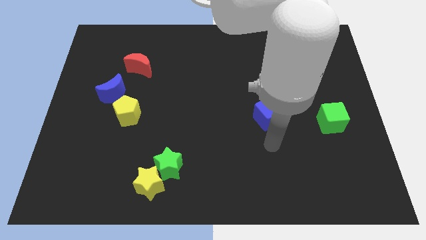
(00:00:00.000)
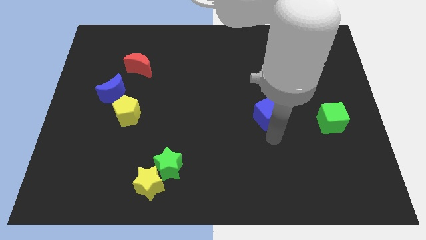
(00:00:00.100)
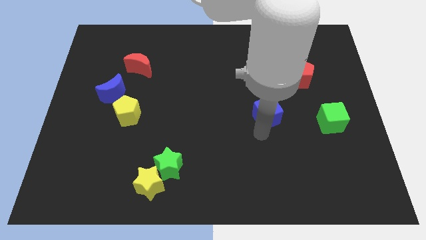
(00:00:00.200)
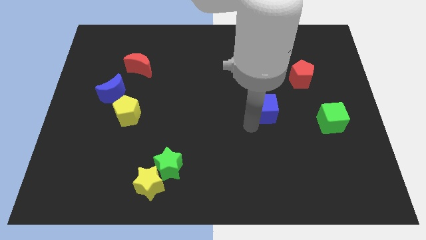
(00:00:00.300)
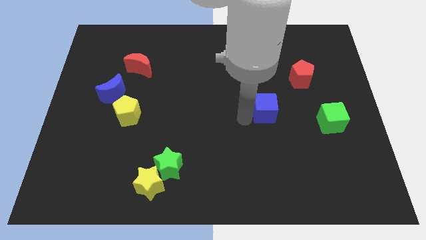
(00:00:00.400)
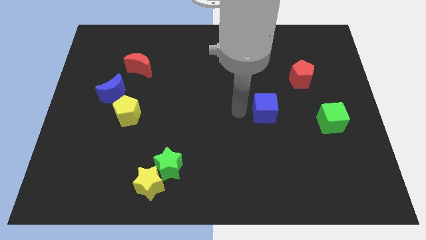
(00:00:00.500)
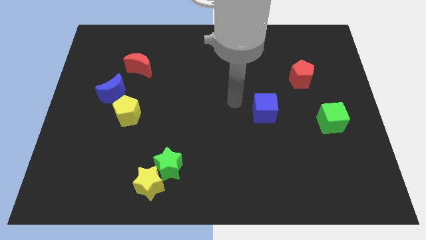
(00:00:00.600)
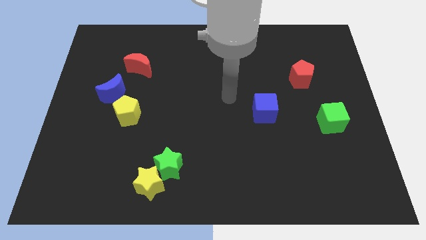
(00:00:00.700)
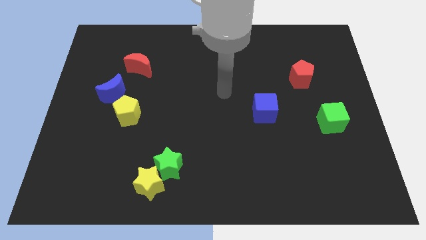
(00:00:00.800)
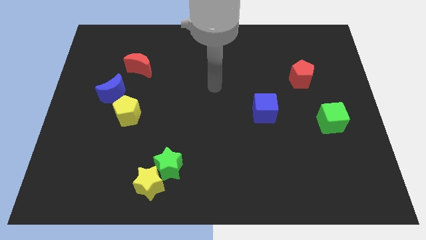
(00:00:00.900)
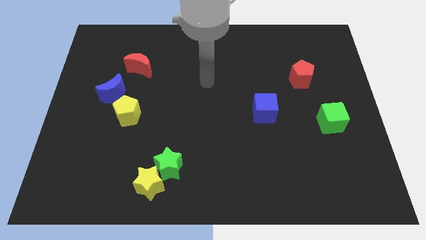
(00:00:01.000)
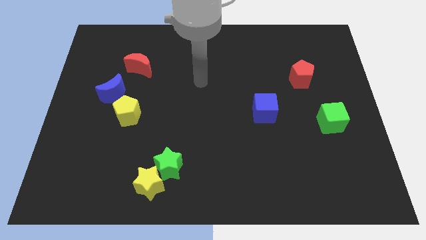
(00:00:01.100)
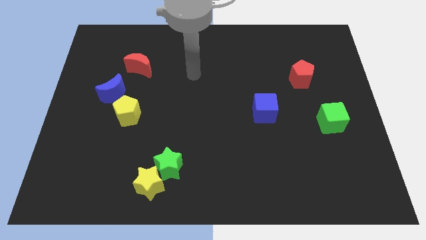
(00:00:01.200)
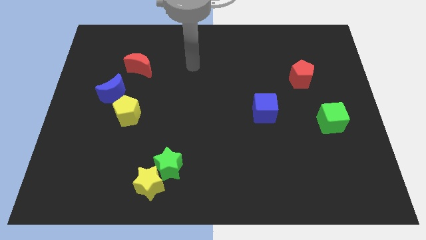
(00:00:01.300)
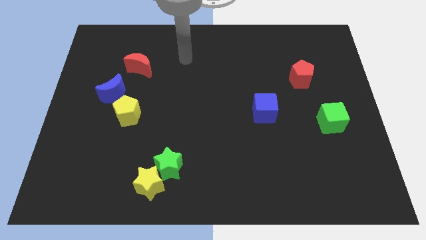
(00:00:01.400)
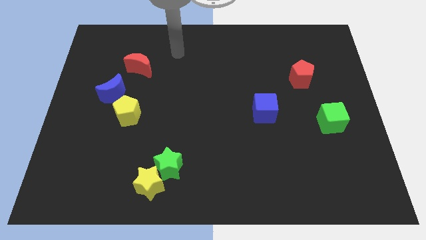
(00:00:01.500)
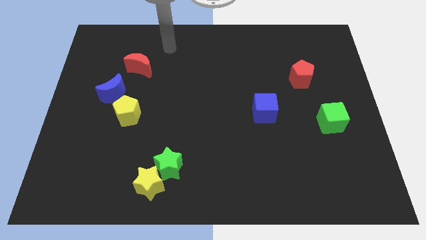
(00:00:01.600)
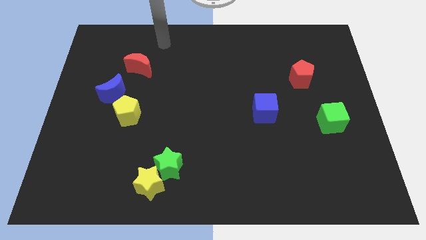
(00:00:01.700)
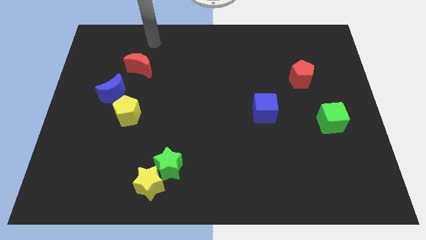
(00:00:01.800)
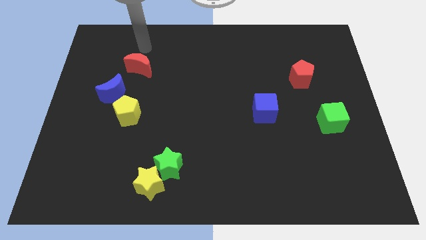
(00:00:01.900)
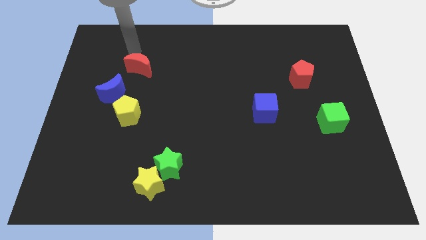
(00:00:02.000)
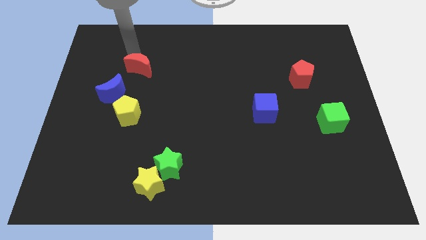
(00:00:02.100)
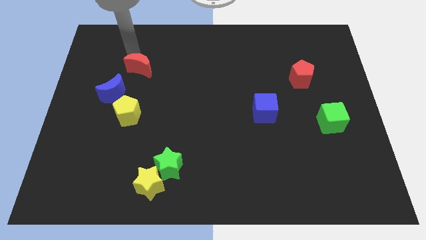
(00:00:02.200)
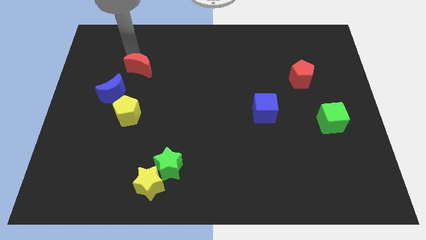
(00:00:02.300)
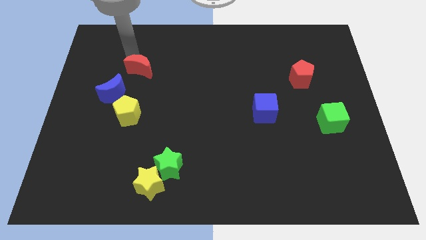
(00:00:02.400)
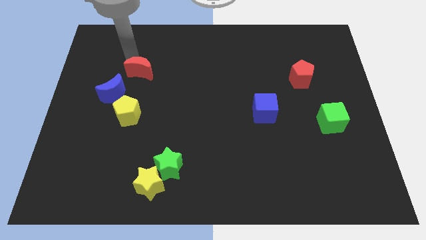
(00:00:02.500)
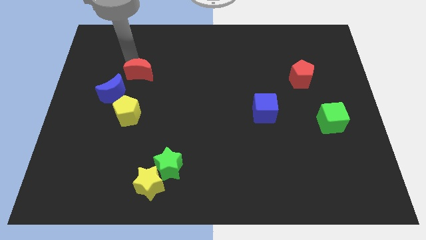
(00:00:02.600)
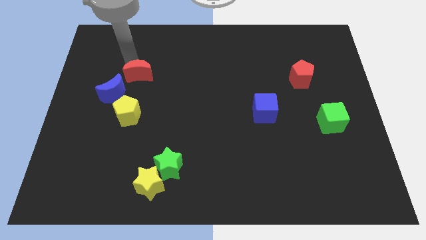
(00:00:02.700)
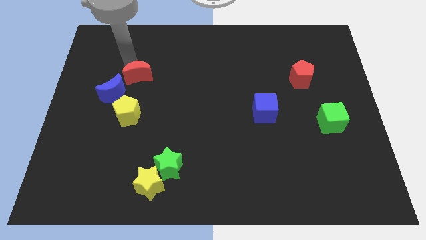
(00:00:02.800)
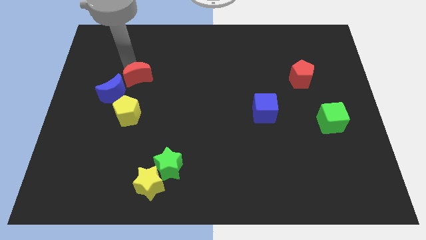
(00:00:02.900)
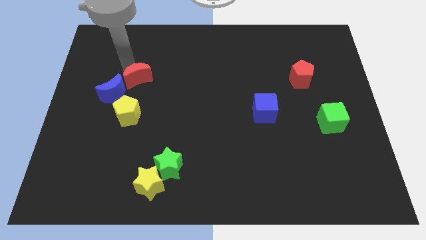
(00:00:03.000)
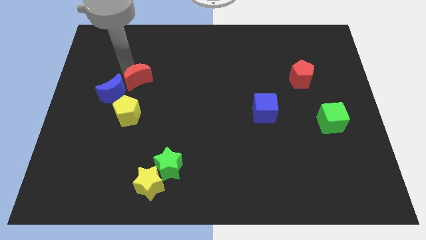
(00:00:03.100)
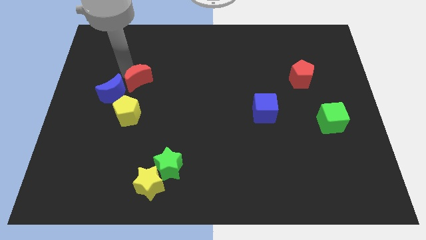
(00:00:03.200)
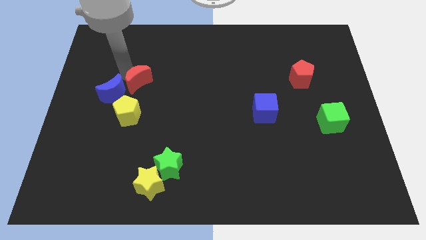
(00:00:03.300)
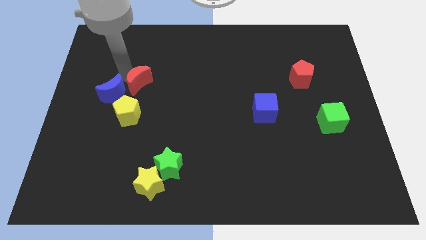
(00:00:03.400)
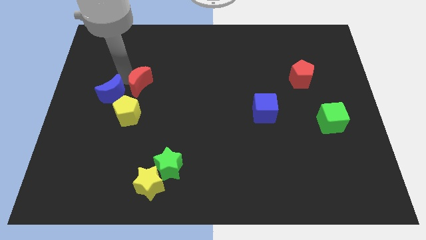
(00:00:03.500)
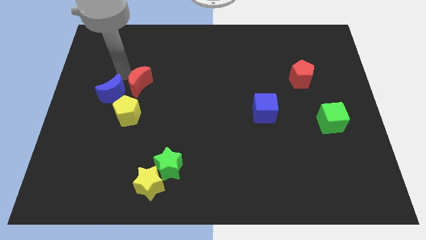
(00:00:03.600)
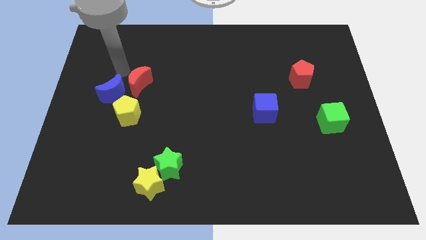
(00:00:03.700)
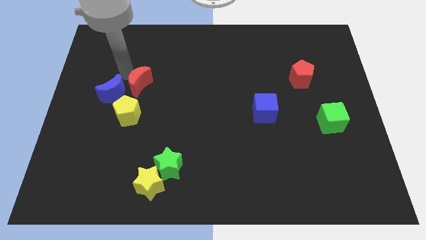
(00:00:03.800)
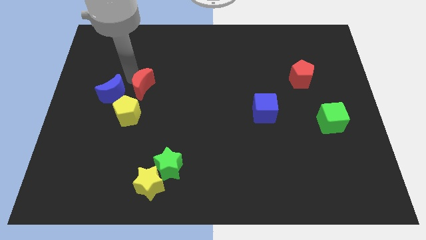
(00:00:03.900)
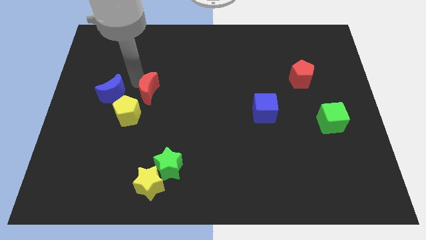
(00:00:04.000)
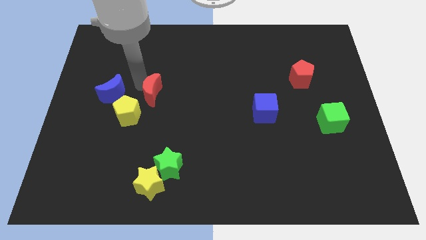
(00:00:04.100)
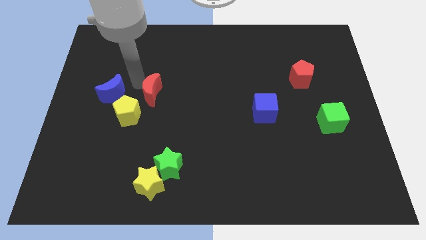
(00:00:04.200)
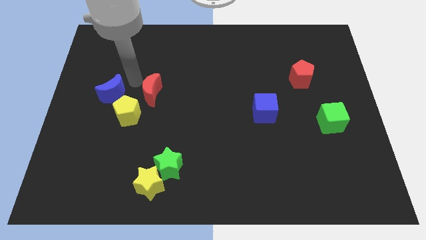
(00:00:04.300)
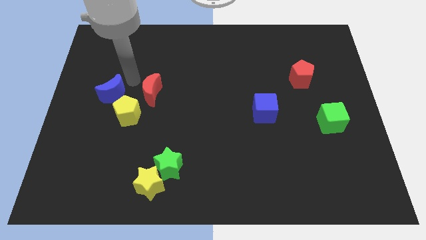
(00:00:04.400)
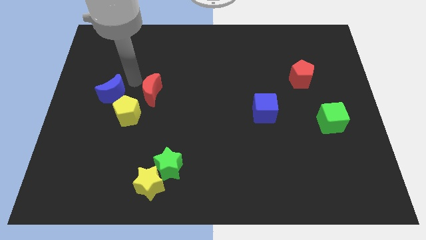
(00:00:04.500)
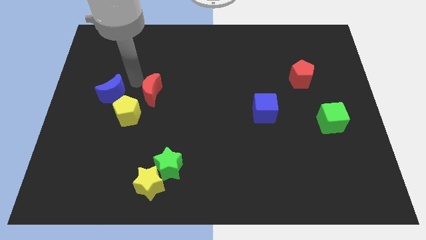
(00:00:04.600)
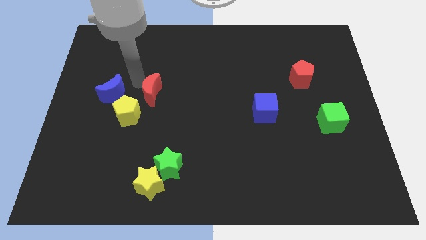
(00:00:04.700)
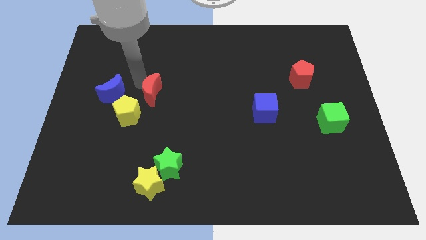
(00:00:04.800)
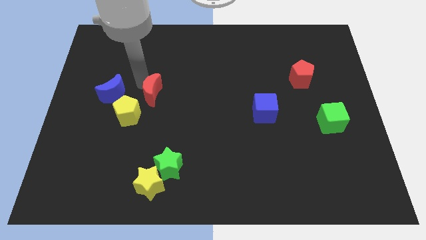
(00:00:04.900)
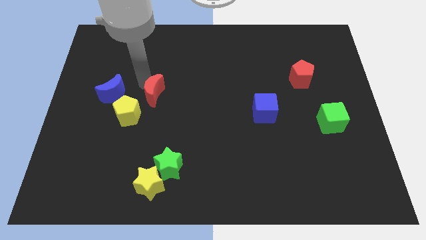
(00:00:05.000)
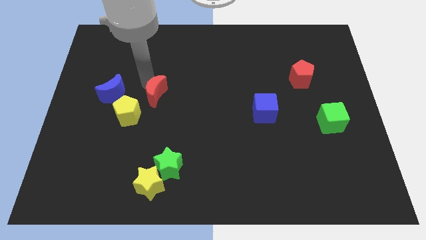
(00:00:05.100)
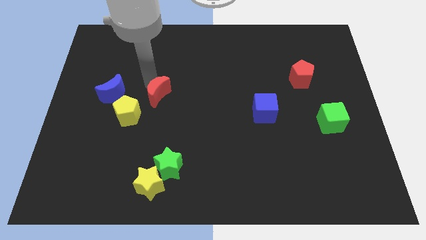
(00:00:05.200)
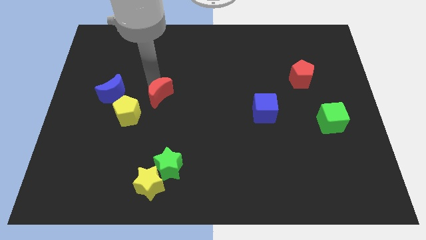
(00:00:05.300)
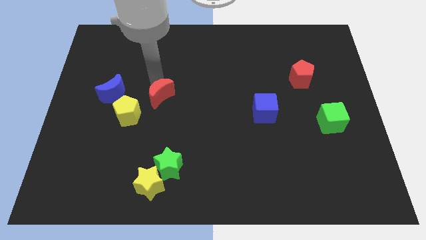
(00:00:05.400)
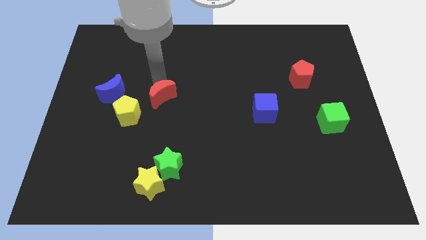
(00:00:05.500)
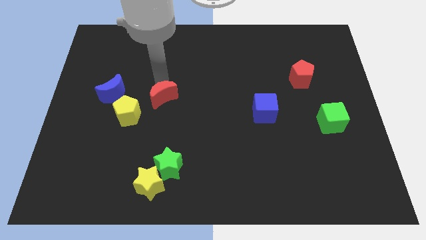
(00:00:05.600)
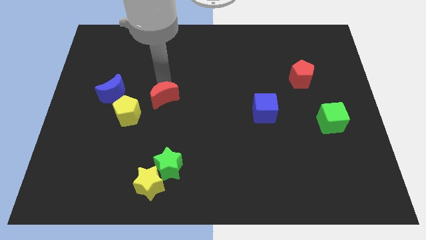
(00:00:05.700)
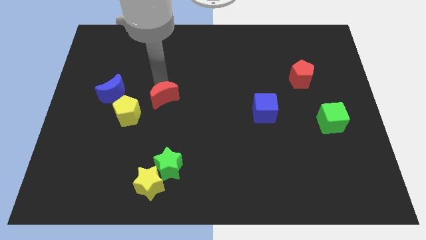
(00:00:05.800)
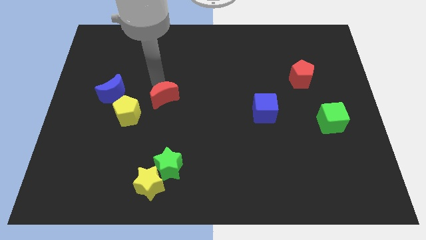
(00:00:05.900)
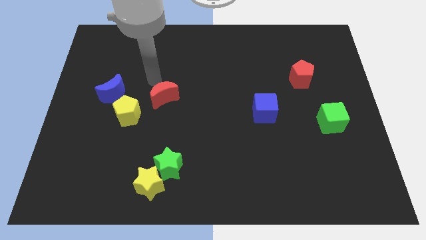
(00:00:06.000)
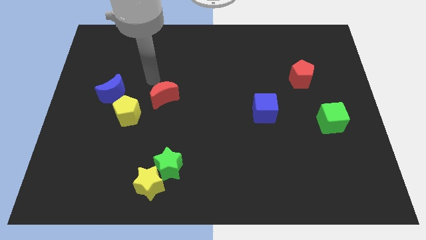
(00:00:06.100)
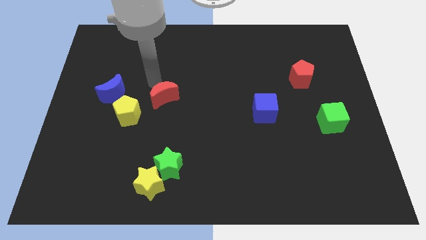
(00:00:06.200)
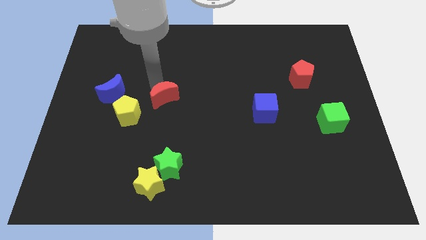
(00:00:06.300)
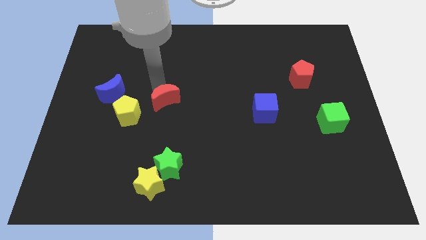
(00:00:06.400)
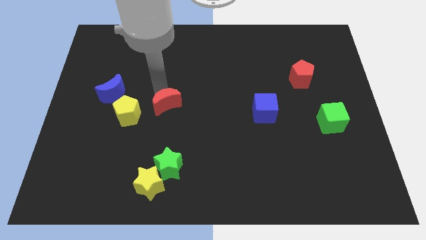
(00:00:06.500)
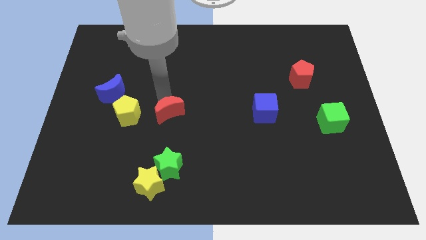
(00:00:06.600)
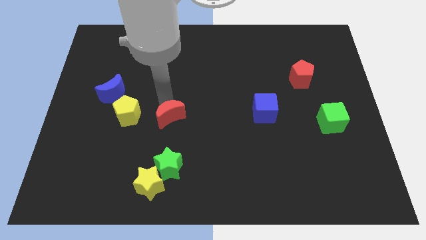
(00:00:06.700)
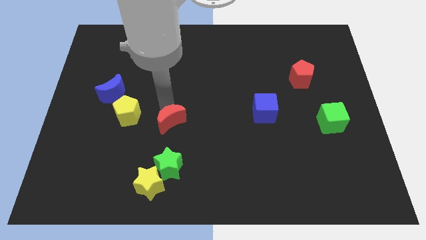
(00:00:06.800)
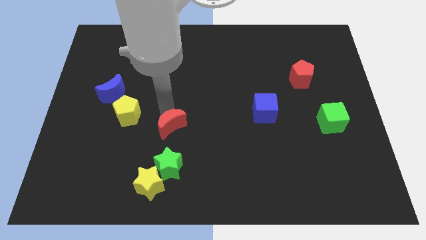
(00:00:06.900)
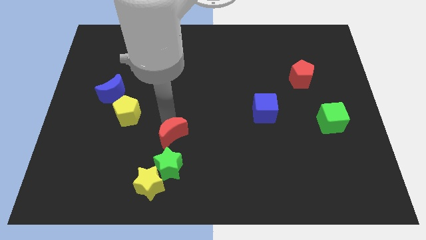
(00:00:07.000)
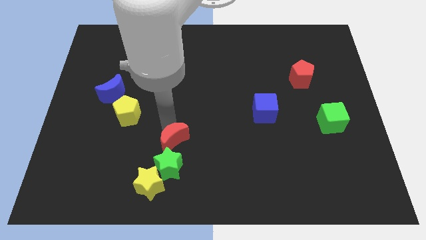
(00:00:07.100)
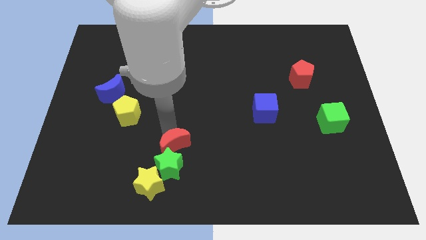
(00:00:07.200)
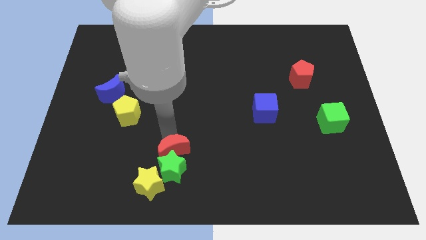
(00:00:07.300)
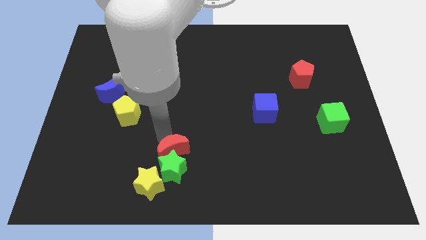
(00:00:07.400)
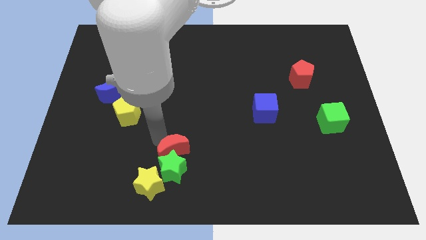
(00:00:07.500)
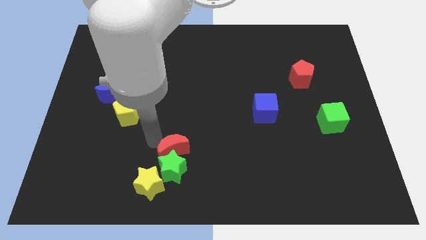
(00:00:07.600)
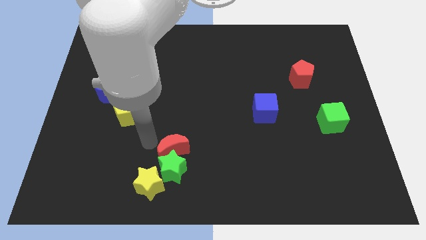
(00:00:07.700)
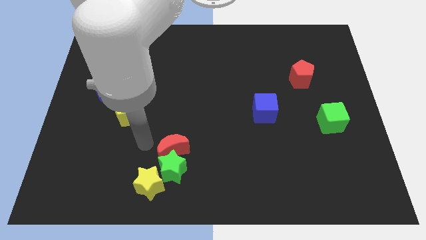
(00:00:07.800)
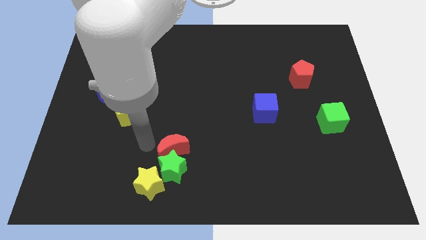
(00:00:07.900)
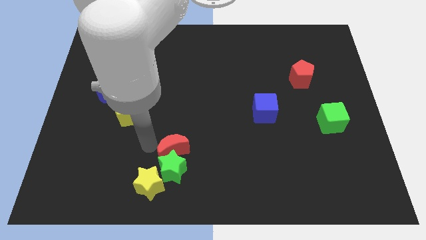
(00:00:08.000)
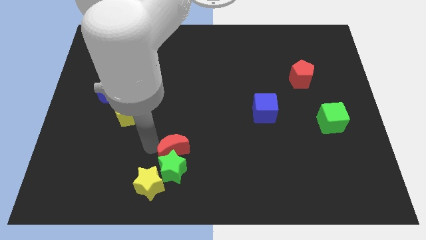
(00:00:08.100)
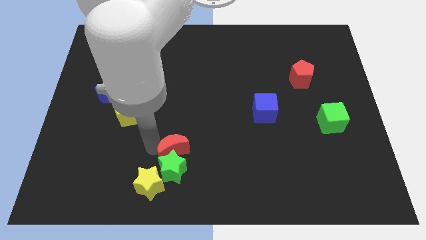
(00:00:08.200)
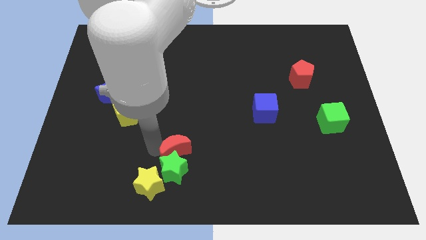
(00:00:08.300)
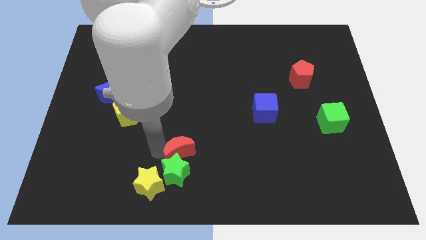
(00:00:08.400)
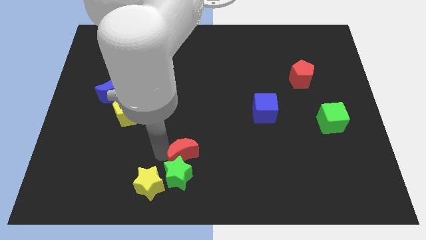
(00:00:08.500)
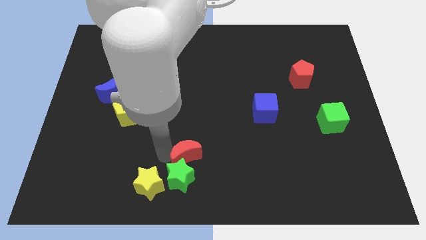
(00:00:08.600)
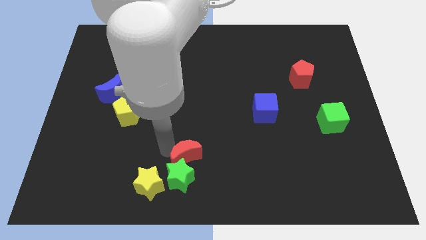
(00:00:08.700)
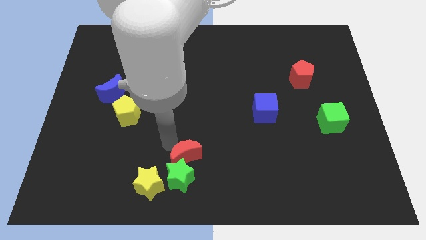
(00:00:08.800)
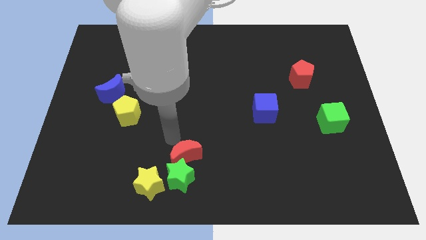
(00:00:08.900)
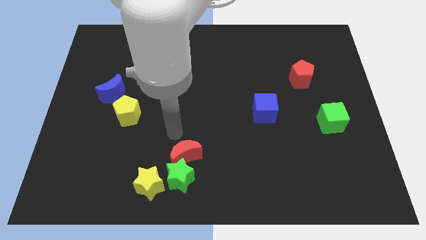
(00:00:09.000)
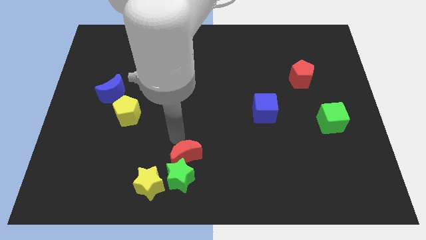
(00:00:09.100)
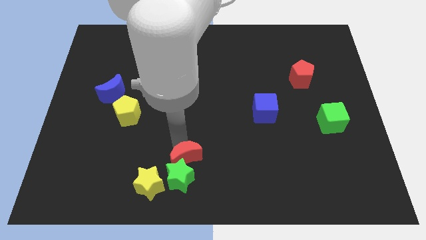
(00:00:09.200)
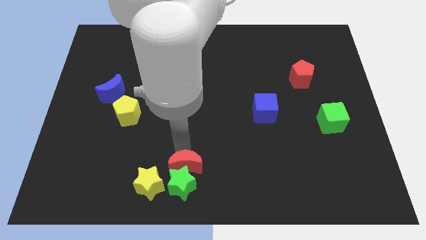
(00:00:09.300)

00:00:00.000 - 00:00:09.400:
push the red moon to the bottom side
